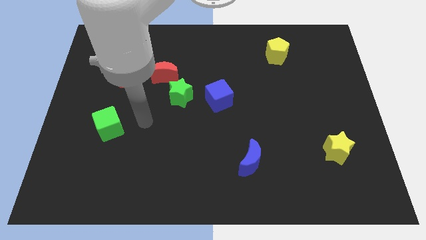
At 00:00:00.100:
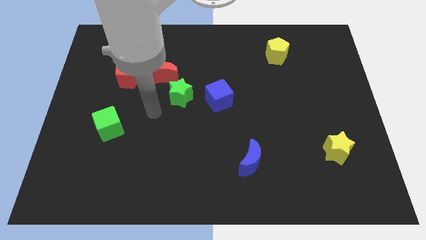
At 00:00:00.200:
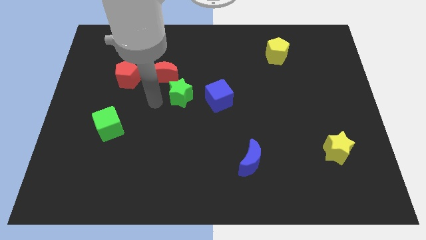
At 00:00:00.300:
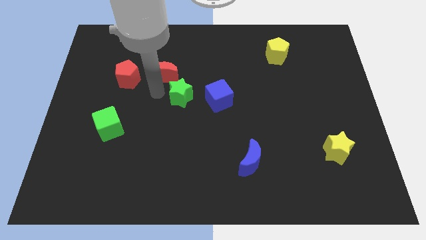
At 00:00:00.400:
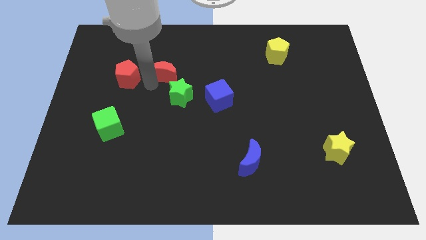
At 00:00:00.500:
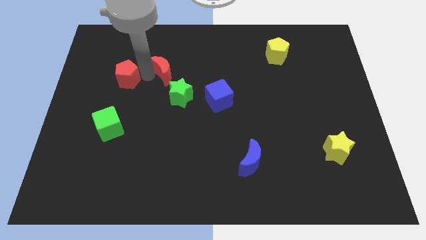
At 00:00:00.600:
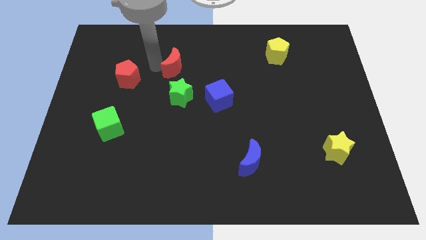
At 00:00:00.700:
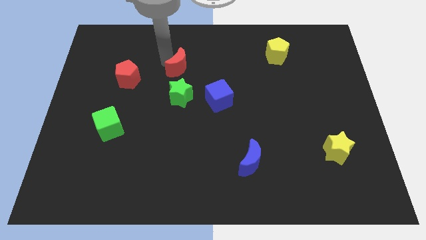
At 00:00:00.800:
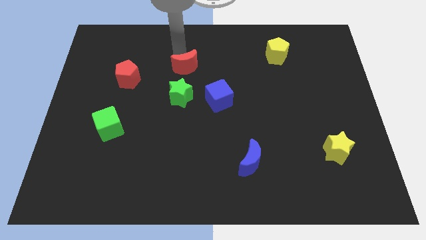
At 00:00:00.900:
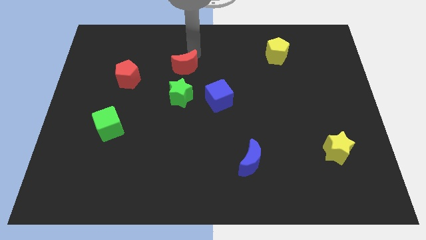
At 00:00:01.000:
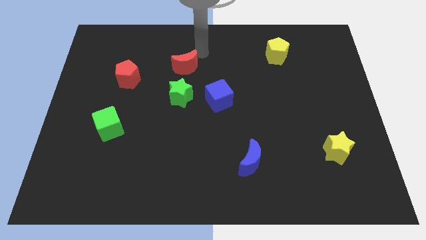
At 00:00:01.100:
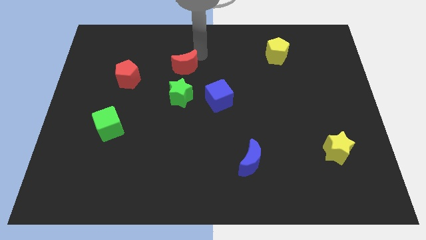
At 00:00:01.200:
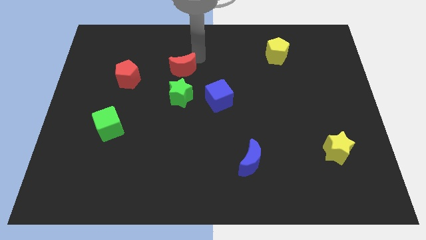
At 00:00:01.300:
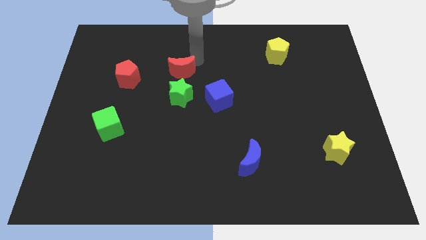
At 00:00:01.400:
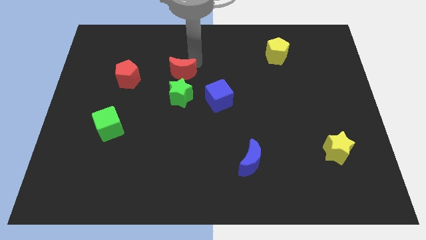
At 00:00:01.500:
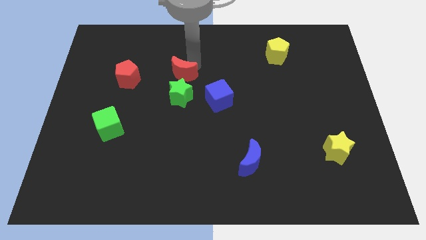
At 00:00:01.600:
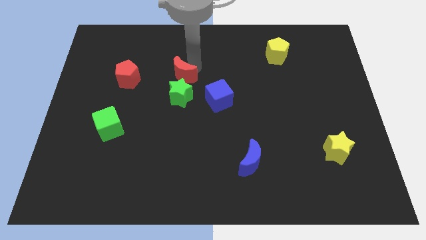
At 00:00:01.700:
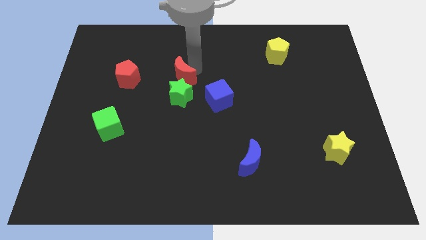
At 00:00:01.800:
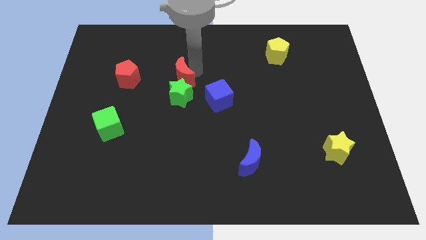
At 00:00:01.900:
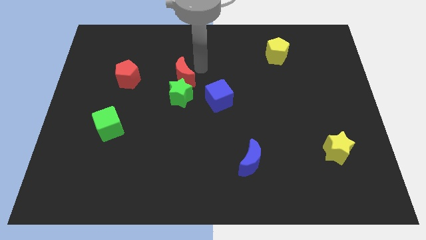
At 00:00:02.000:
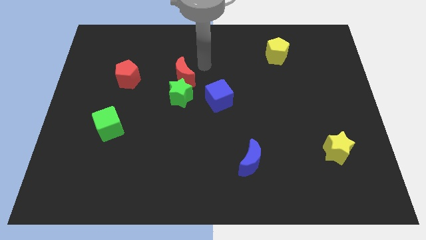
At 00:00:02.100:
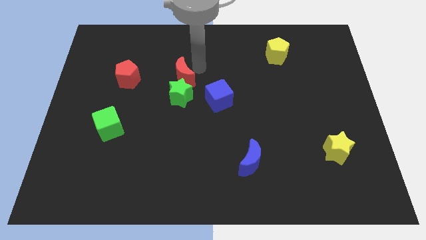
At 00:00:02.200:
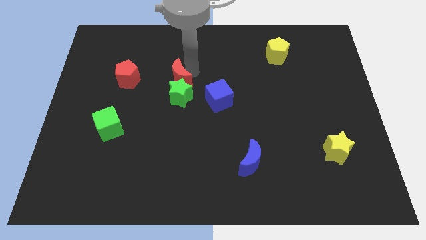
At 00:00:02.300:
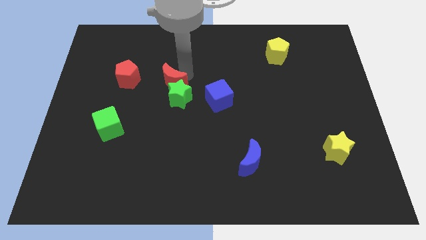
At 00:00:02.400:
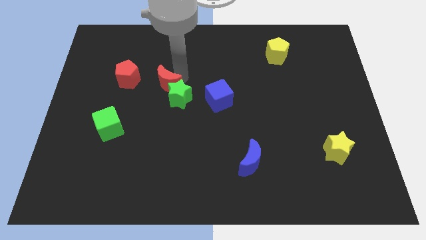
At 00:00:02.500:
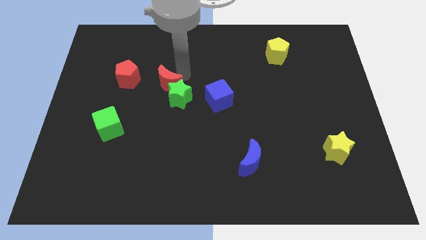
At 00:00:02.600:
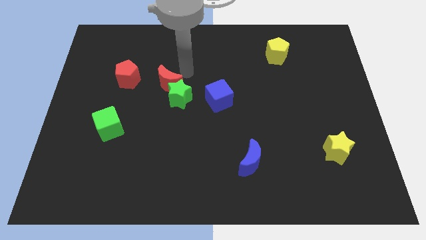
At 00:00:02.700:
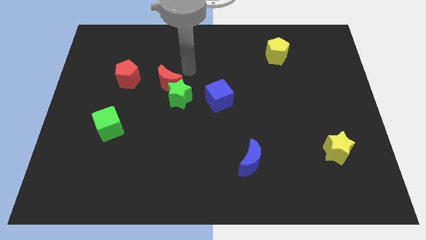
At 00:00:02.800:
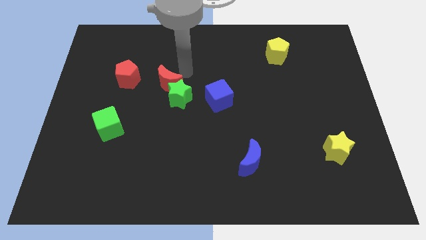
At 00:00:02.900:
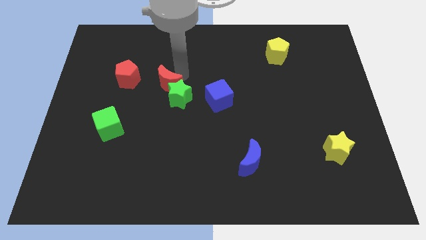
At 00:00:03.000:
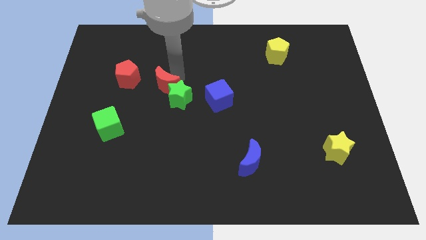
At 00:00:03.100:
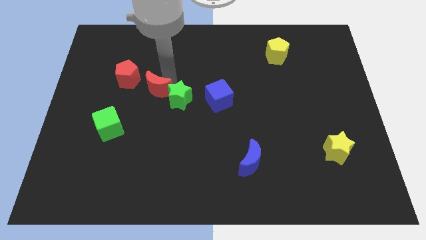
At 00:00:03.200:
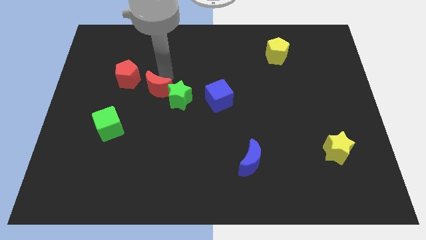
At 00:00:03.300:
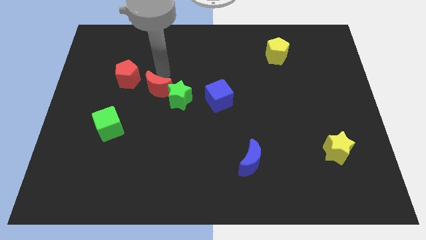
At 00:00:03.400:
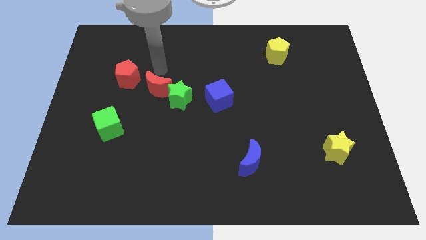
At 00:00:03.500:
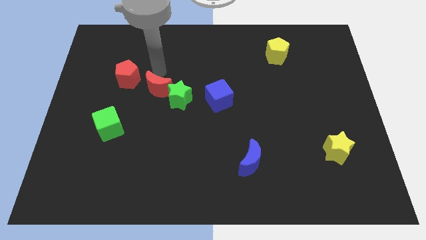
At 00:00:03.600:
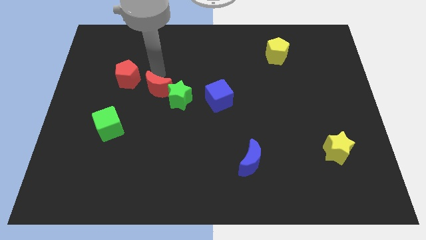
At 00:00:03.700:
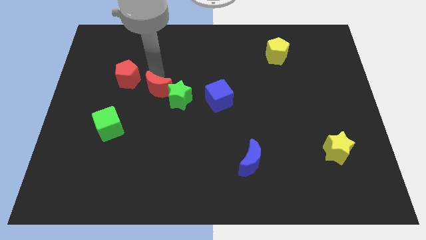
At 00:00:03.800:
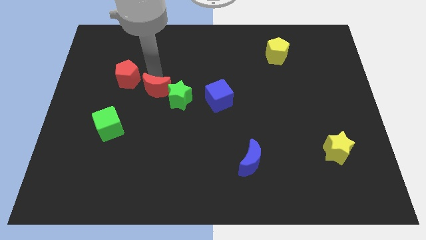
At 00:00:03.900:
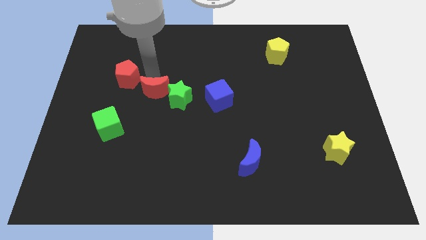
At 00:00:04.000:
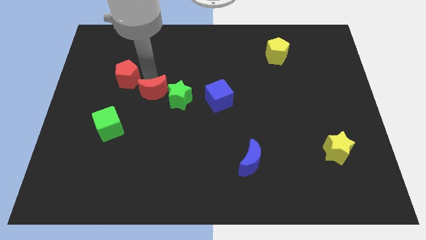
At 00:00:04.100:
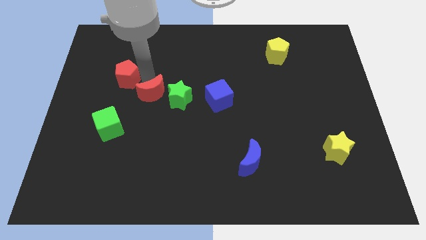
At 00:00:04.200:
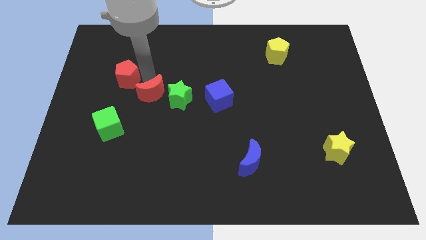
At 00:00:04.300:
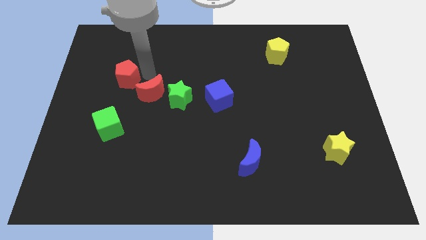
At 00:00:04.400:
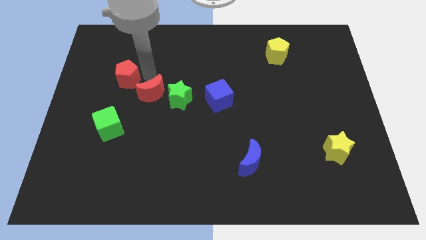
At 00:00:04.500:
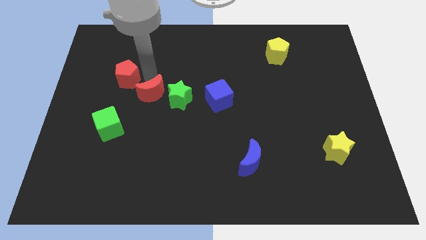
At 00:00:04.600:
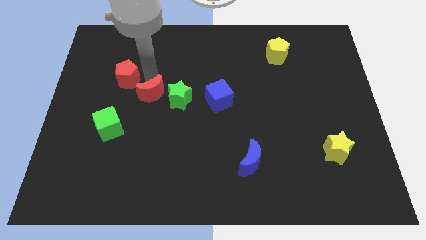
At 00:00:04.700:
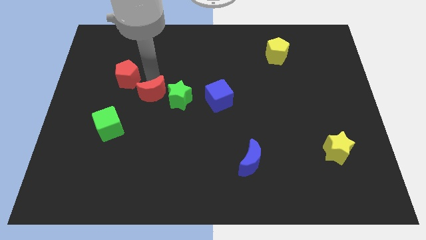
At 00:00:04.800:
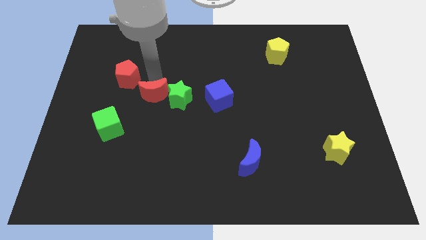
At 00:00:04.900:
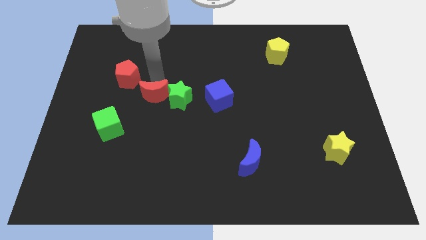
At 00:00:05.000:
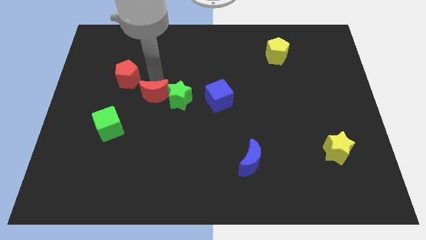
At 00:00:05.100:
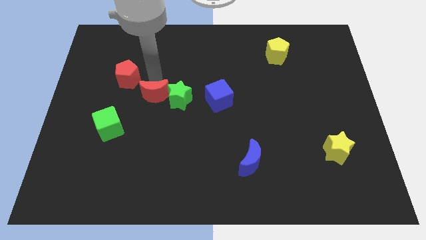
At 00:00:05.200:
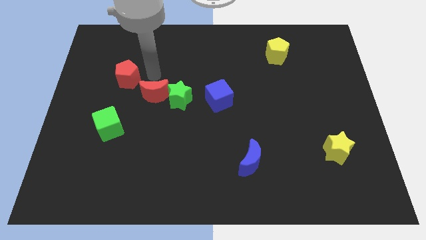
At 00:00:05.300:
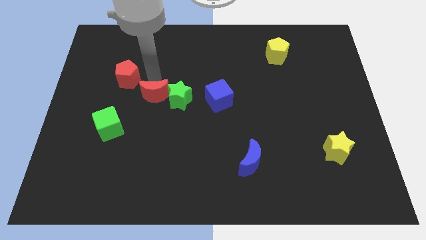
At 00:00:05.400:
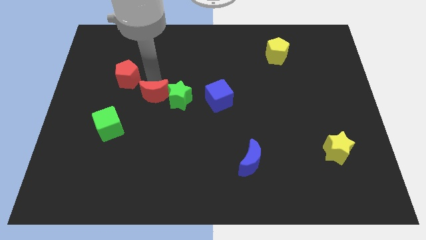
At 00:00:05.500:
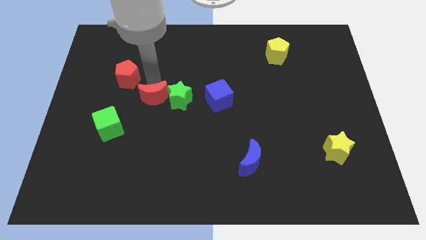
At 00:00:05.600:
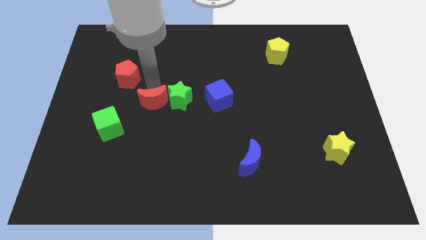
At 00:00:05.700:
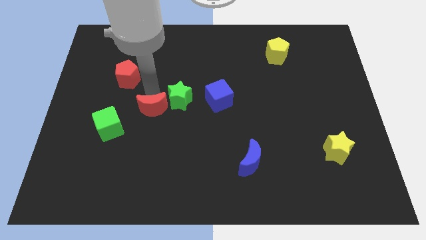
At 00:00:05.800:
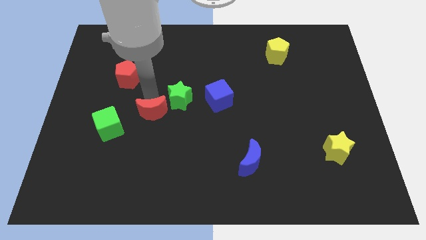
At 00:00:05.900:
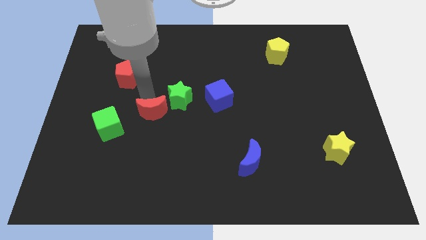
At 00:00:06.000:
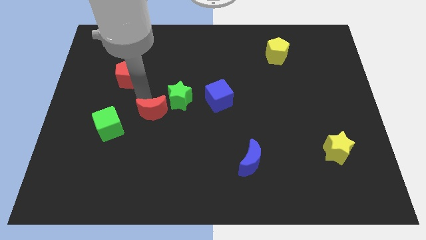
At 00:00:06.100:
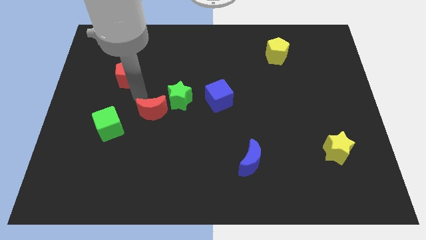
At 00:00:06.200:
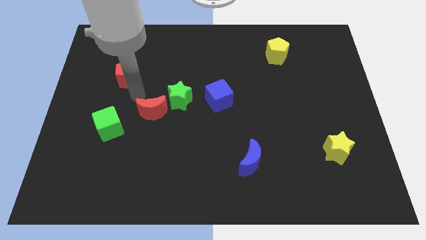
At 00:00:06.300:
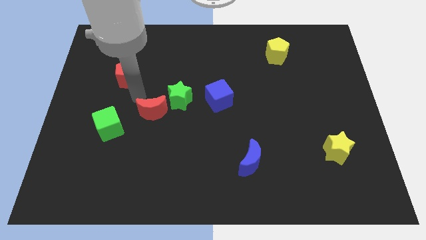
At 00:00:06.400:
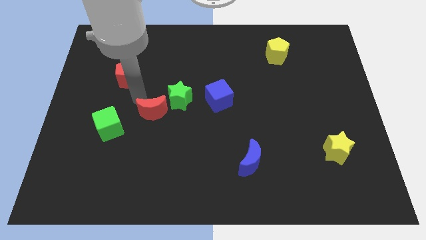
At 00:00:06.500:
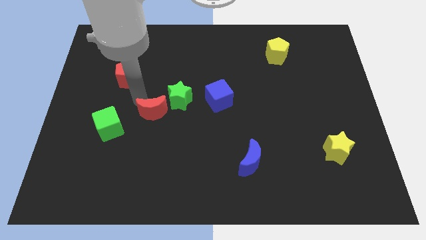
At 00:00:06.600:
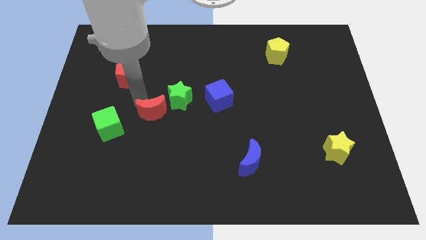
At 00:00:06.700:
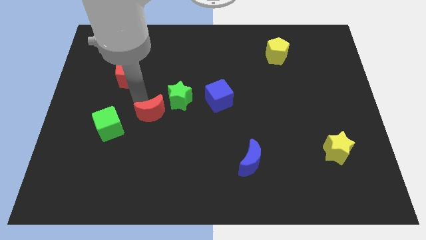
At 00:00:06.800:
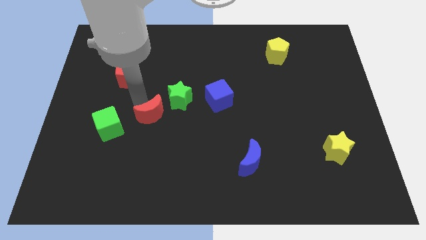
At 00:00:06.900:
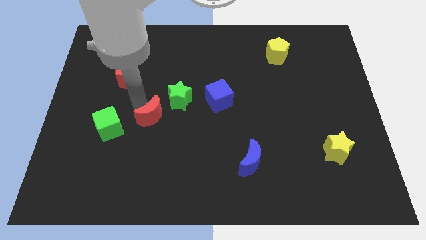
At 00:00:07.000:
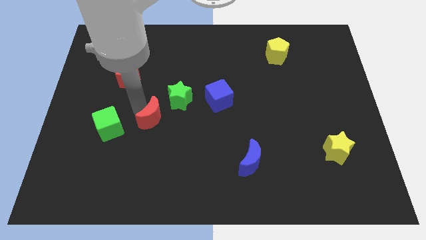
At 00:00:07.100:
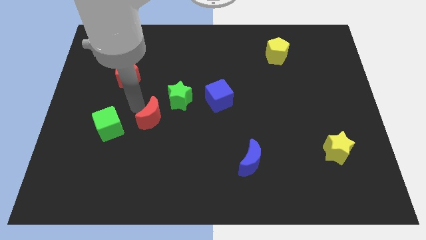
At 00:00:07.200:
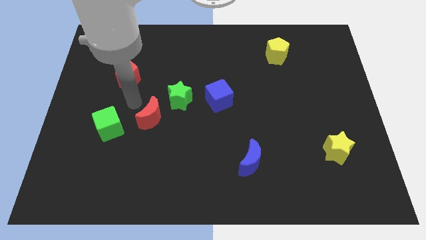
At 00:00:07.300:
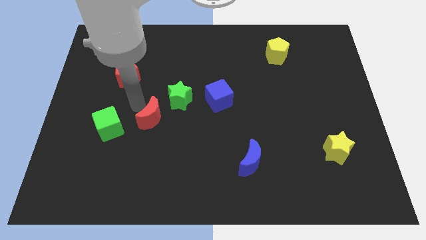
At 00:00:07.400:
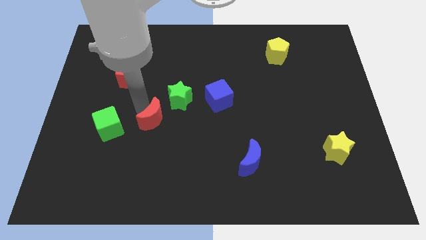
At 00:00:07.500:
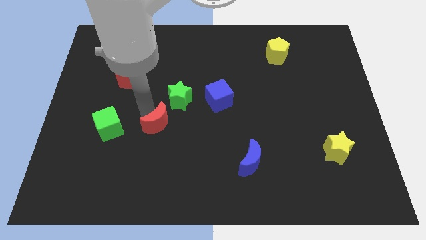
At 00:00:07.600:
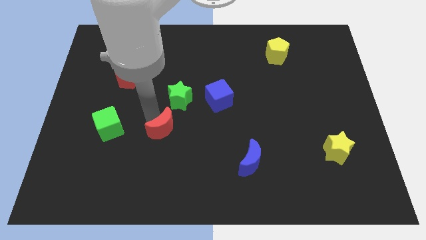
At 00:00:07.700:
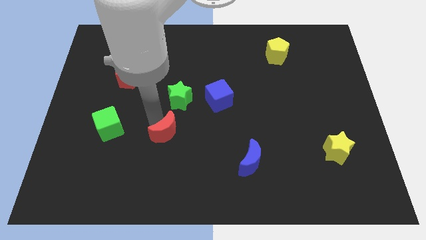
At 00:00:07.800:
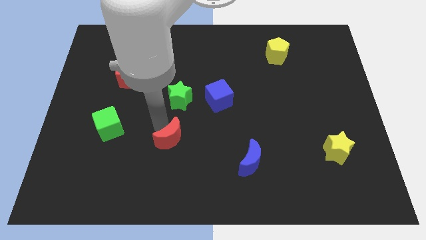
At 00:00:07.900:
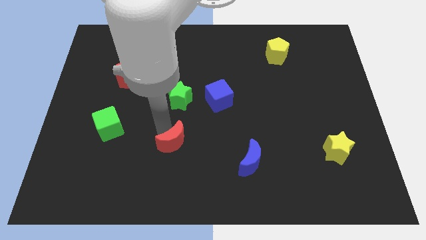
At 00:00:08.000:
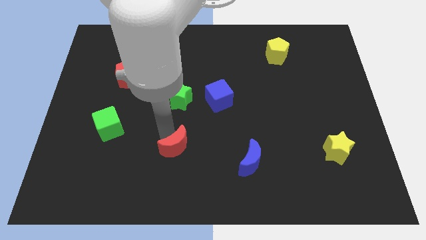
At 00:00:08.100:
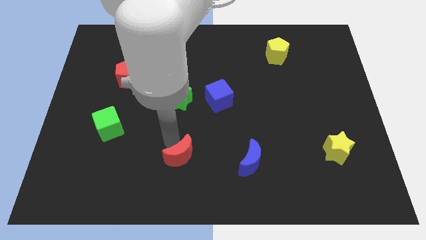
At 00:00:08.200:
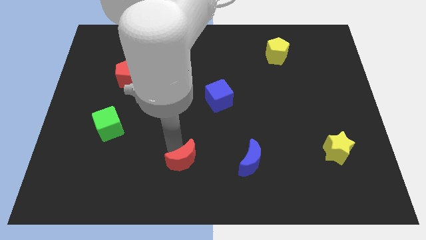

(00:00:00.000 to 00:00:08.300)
move the red moon to the bottom side
